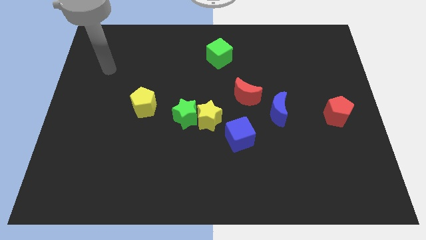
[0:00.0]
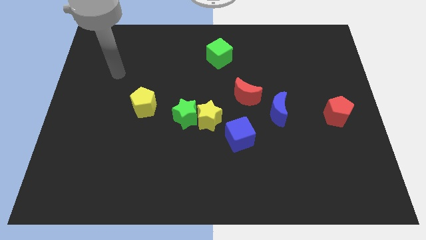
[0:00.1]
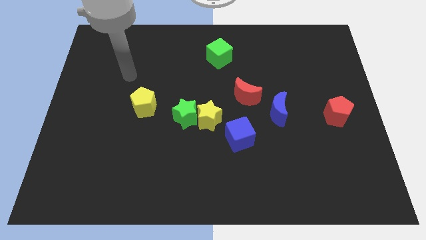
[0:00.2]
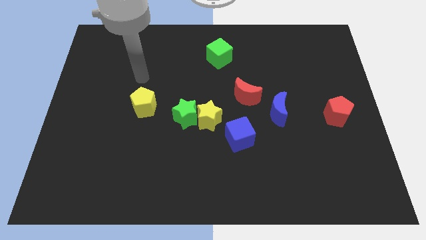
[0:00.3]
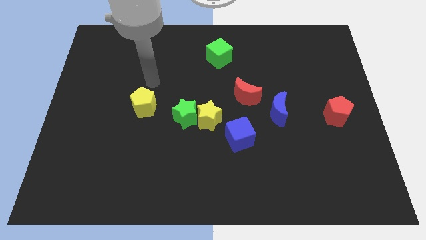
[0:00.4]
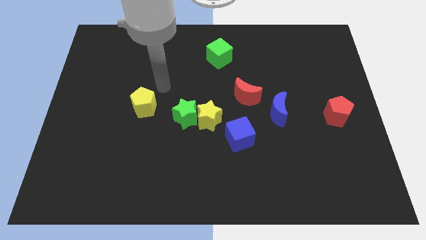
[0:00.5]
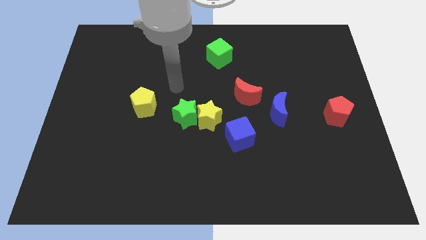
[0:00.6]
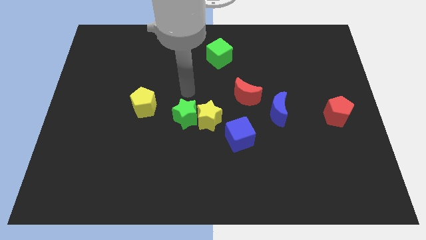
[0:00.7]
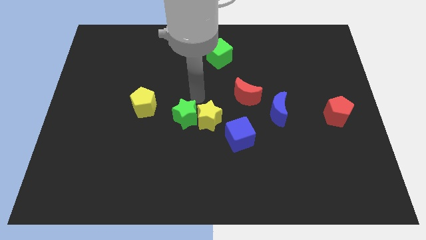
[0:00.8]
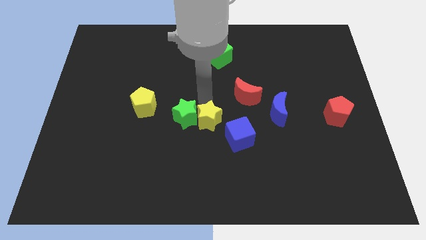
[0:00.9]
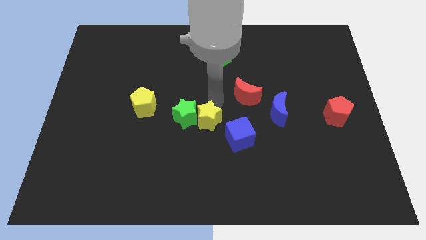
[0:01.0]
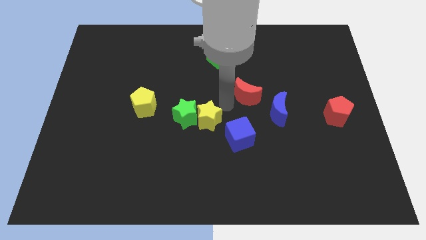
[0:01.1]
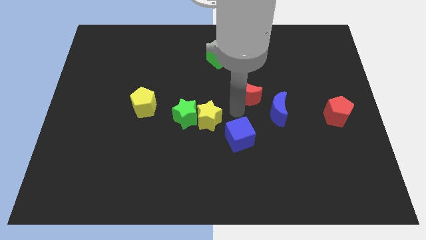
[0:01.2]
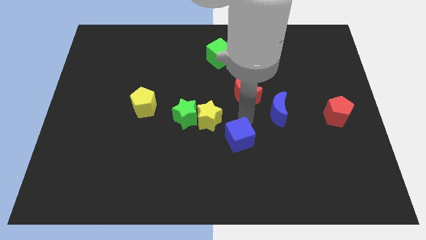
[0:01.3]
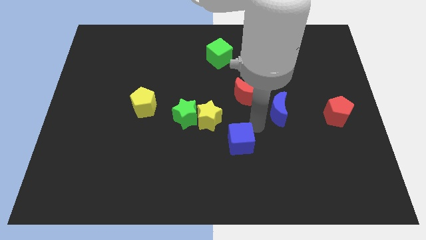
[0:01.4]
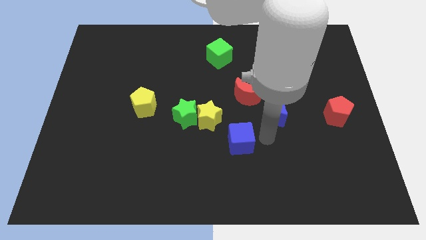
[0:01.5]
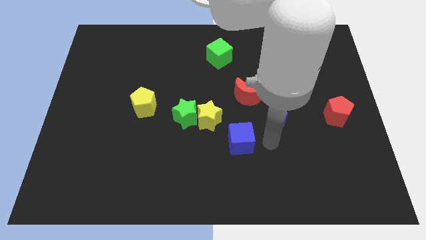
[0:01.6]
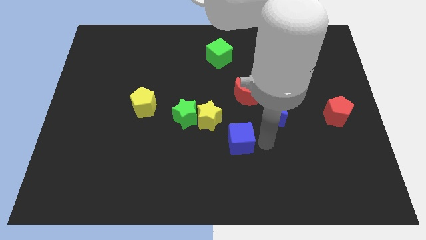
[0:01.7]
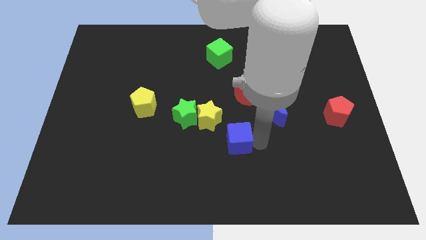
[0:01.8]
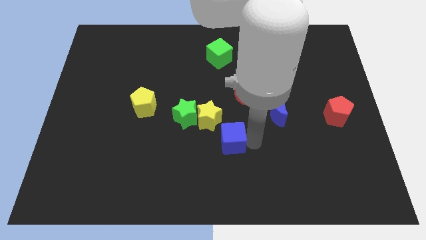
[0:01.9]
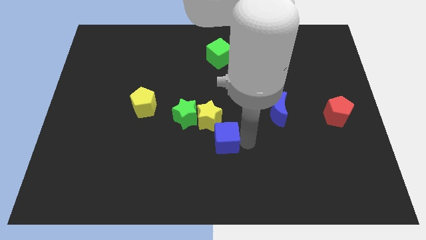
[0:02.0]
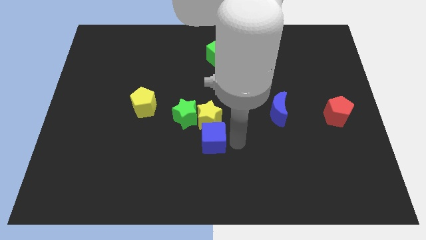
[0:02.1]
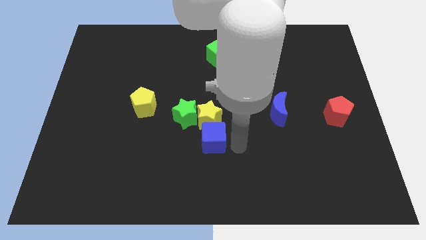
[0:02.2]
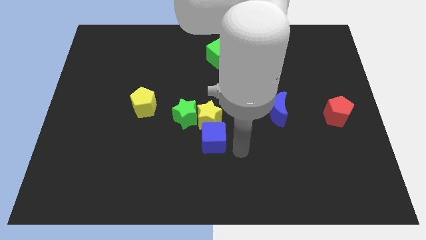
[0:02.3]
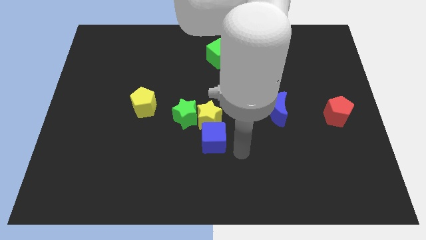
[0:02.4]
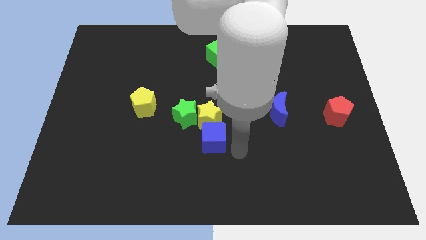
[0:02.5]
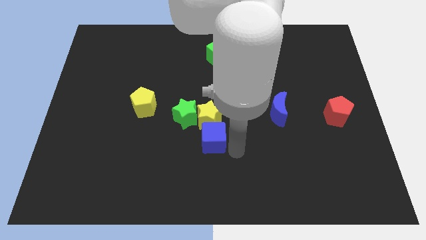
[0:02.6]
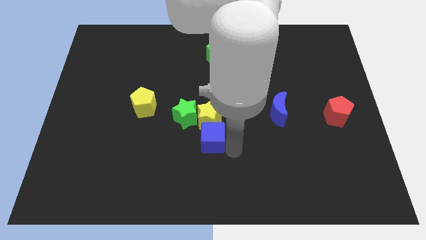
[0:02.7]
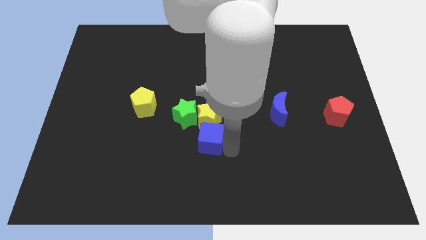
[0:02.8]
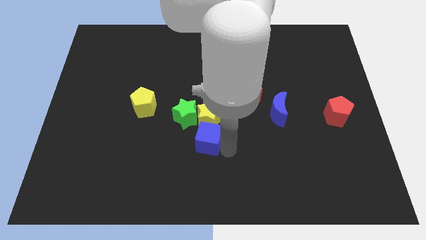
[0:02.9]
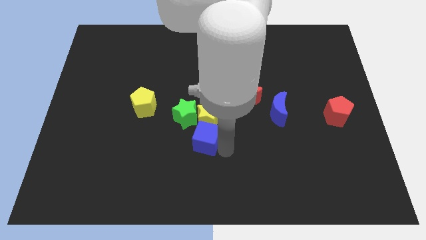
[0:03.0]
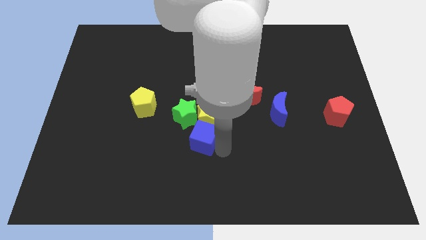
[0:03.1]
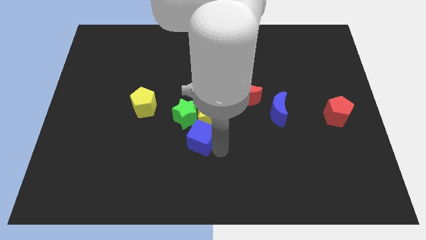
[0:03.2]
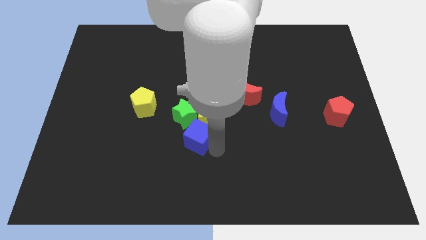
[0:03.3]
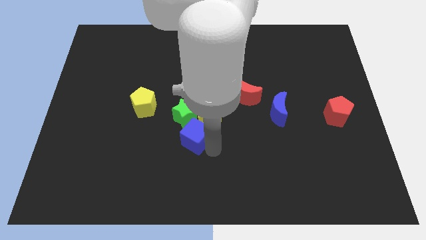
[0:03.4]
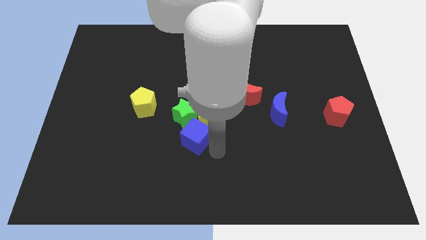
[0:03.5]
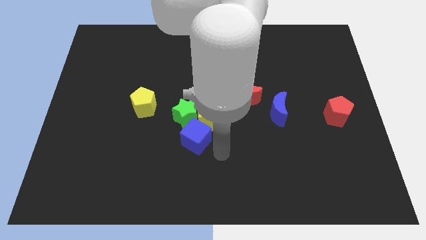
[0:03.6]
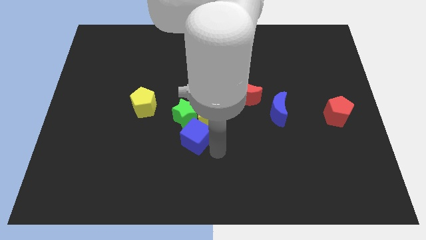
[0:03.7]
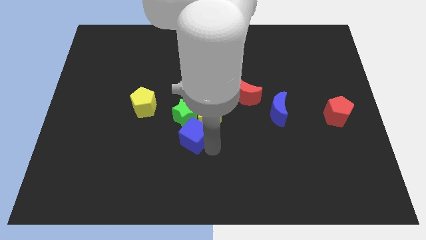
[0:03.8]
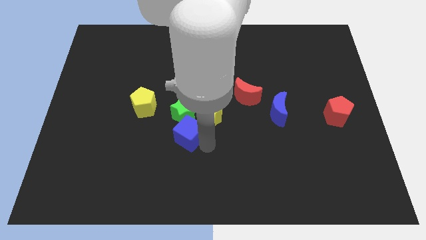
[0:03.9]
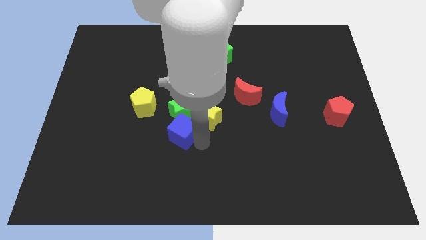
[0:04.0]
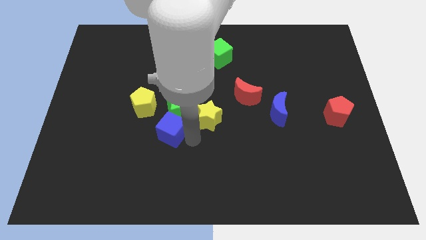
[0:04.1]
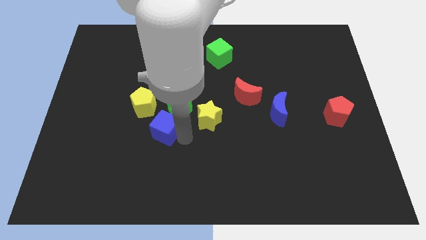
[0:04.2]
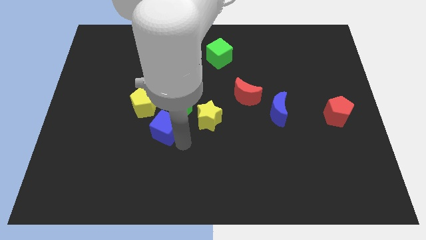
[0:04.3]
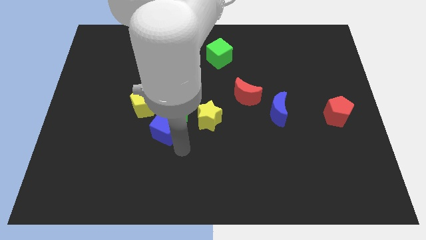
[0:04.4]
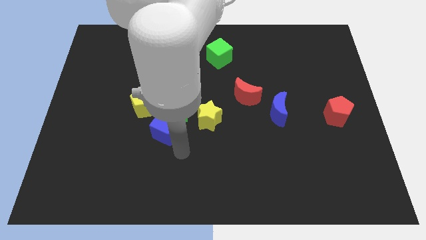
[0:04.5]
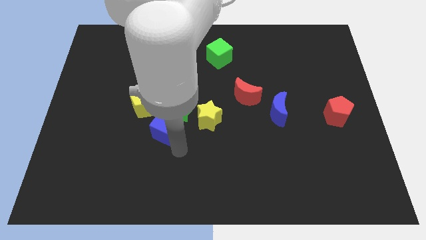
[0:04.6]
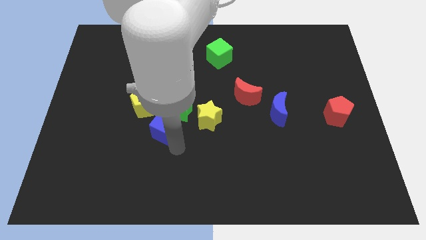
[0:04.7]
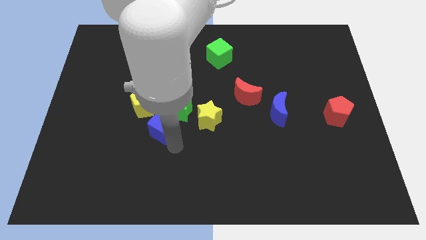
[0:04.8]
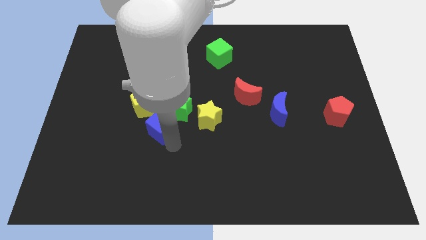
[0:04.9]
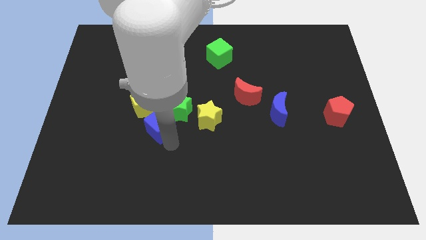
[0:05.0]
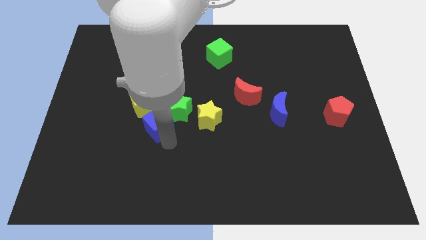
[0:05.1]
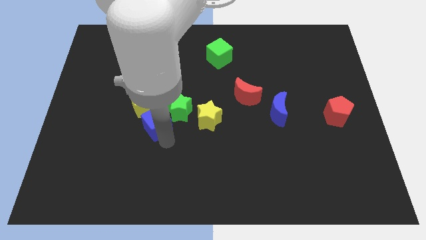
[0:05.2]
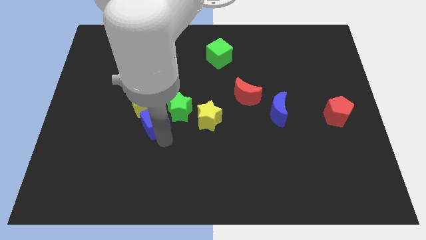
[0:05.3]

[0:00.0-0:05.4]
slide the blue cube towards the yellow pentagon

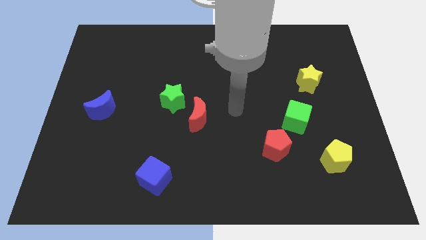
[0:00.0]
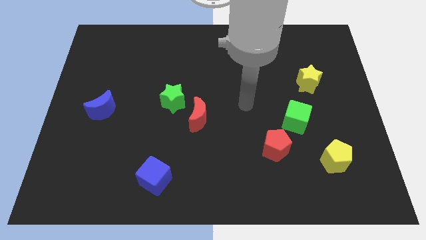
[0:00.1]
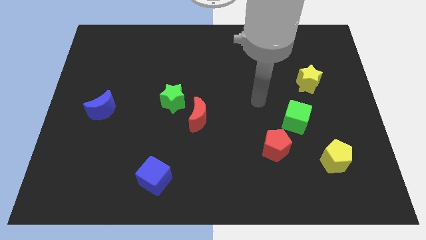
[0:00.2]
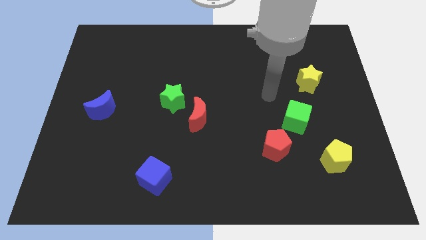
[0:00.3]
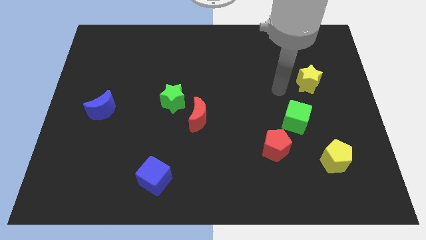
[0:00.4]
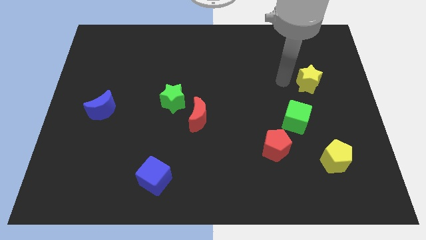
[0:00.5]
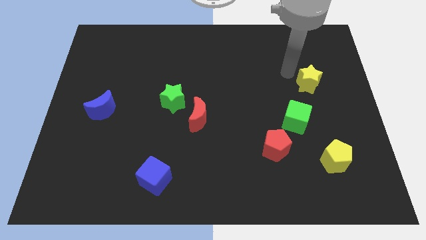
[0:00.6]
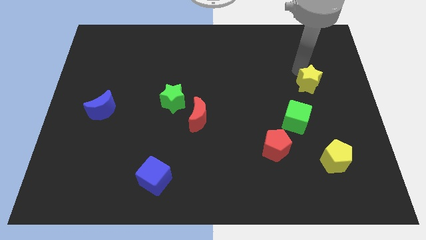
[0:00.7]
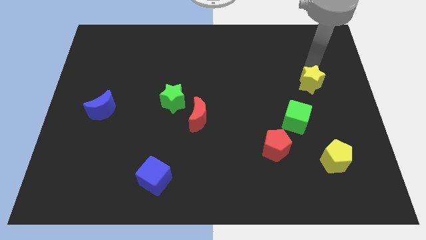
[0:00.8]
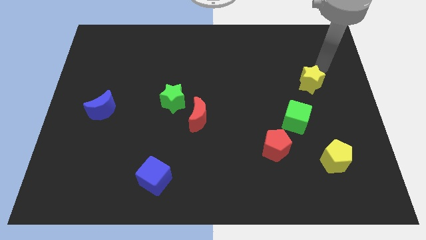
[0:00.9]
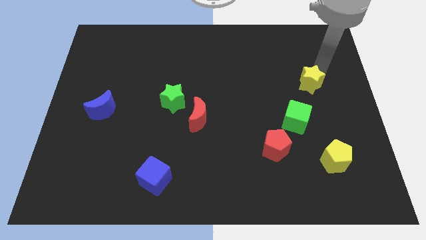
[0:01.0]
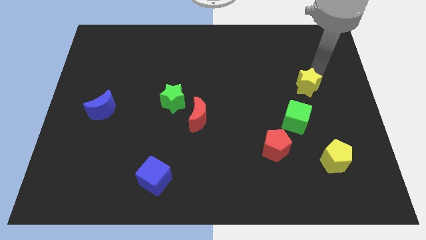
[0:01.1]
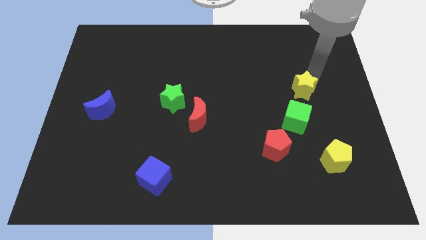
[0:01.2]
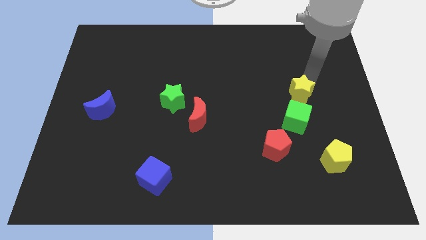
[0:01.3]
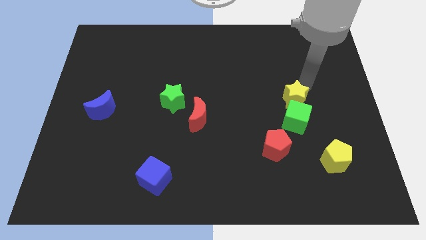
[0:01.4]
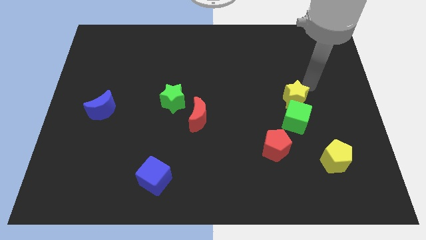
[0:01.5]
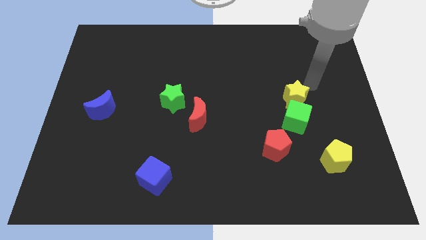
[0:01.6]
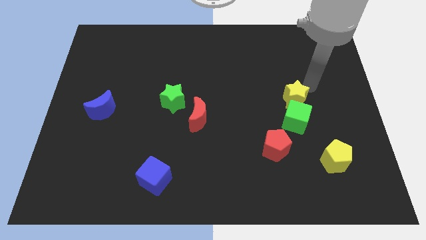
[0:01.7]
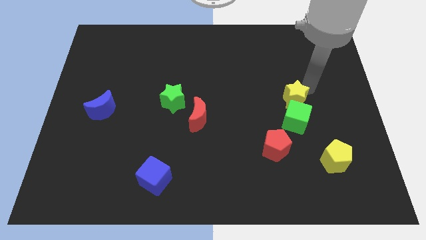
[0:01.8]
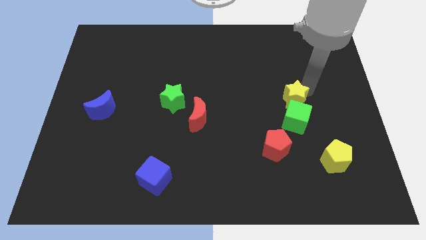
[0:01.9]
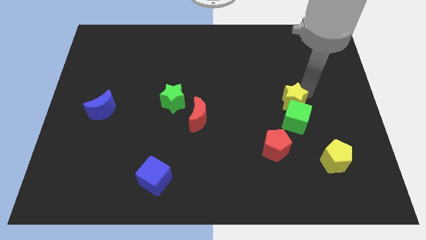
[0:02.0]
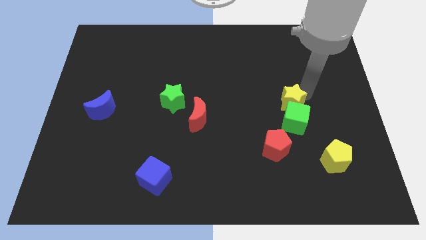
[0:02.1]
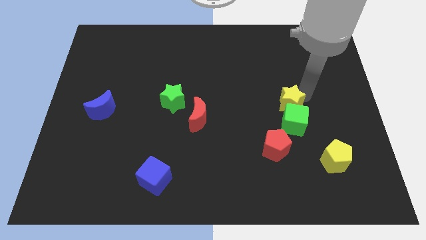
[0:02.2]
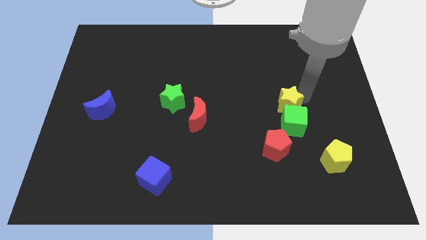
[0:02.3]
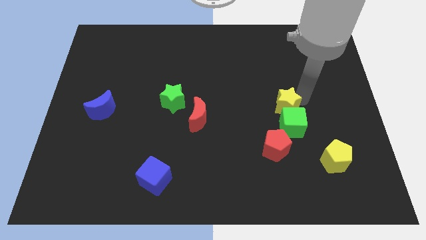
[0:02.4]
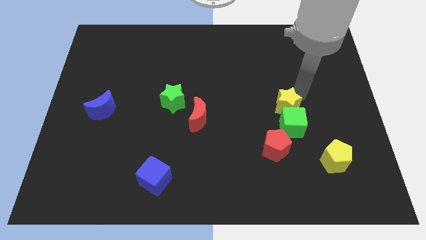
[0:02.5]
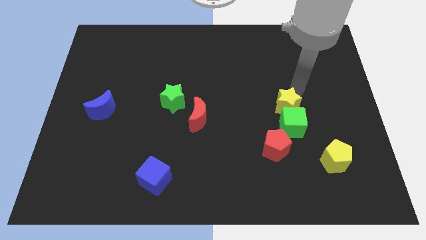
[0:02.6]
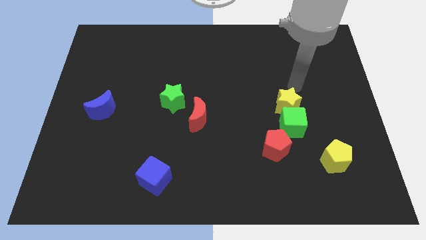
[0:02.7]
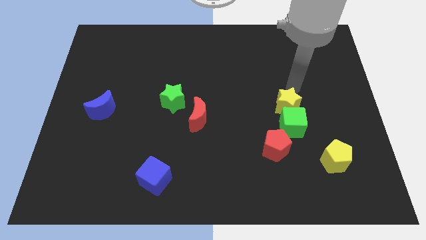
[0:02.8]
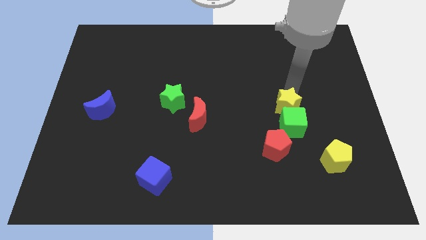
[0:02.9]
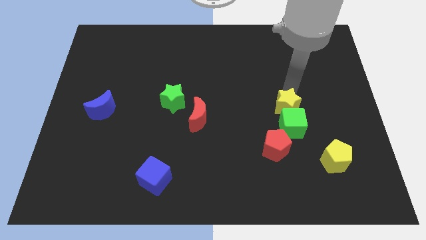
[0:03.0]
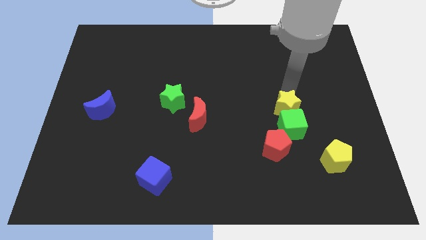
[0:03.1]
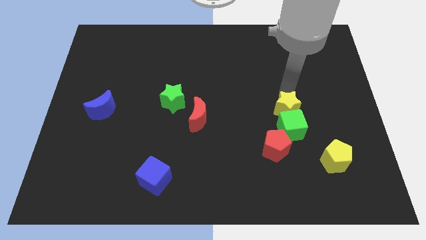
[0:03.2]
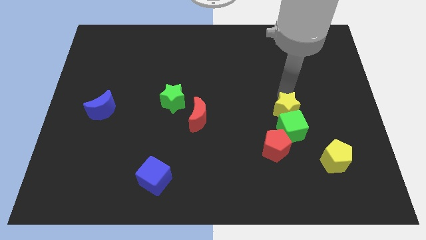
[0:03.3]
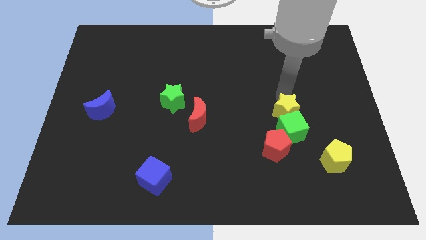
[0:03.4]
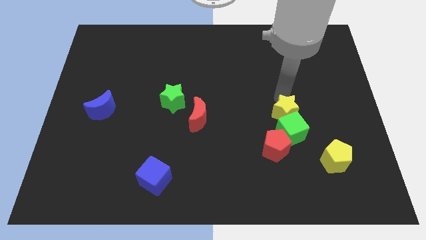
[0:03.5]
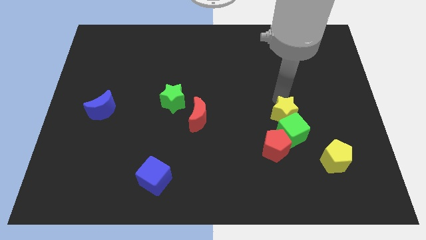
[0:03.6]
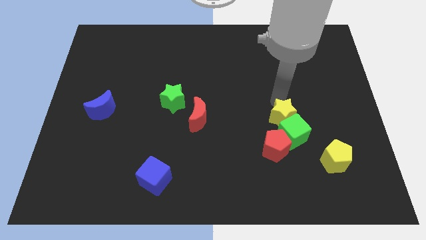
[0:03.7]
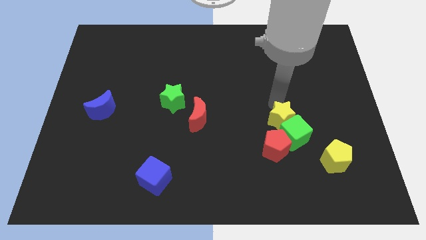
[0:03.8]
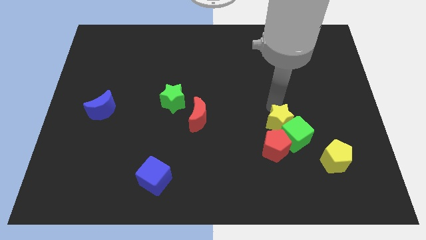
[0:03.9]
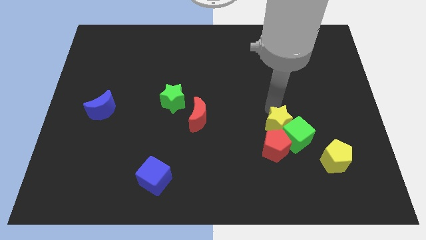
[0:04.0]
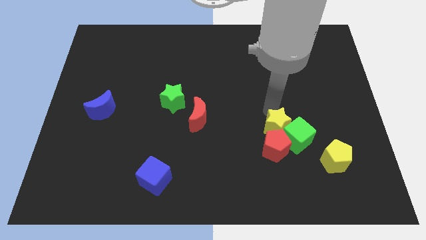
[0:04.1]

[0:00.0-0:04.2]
move the yellow star towards the red pentagon
